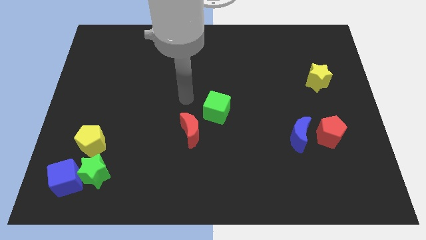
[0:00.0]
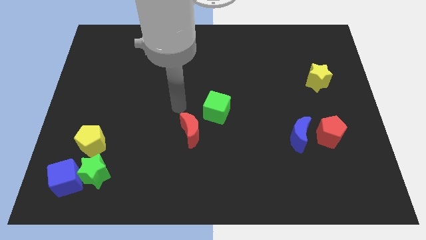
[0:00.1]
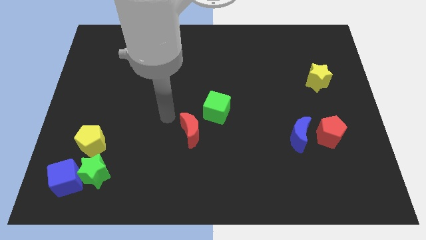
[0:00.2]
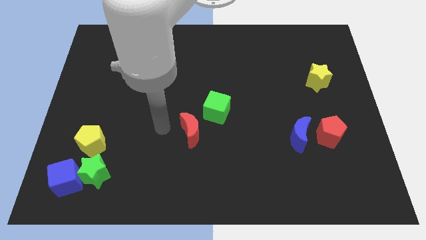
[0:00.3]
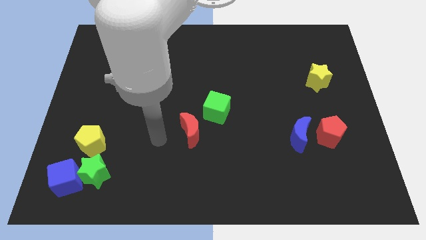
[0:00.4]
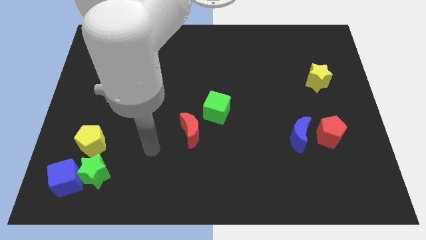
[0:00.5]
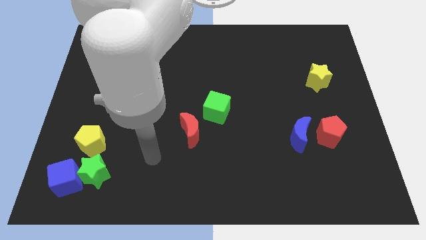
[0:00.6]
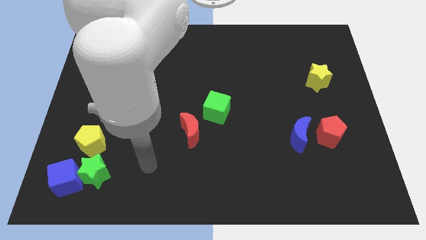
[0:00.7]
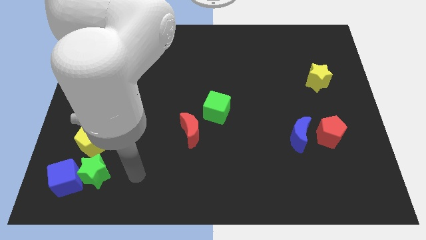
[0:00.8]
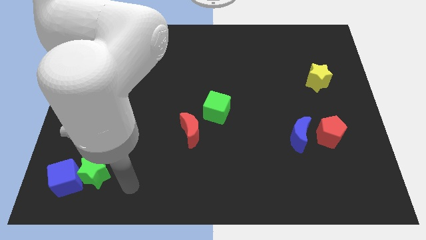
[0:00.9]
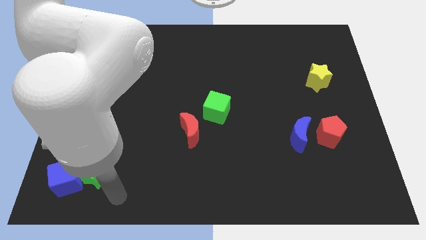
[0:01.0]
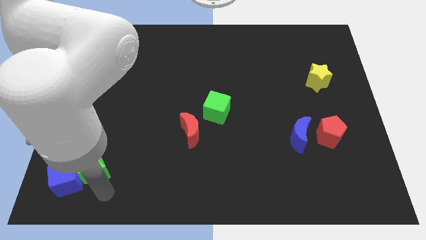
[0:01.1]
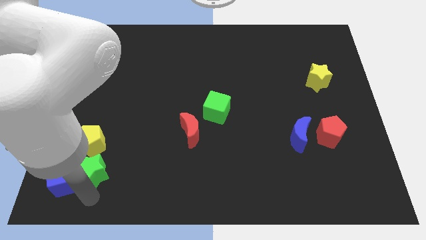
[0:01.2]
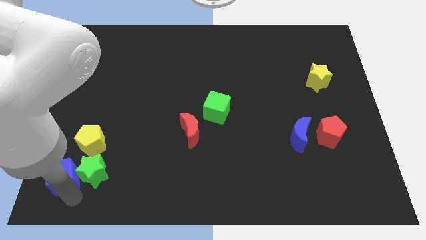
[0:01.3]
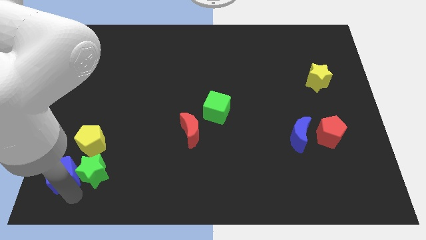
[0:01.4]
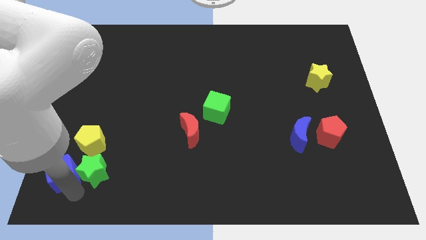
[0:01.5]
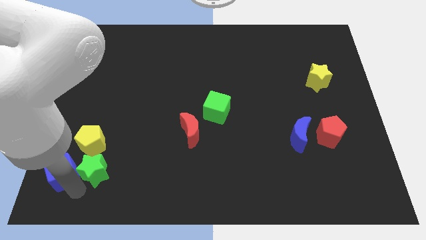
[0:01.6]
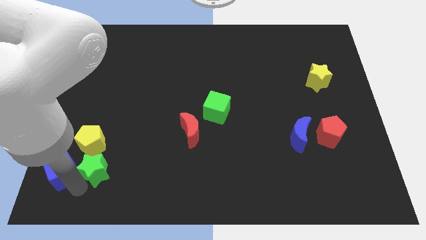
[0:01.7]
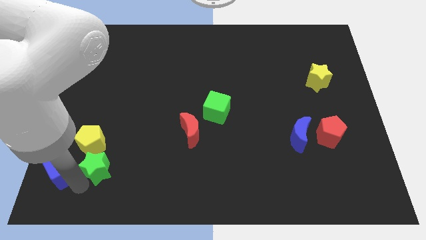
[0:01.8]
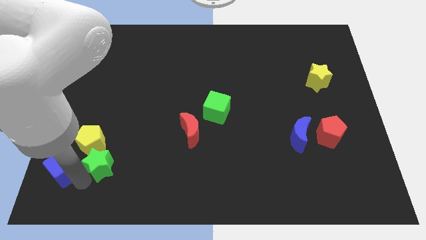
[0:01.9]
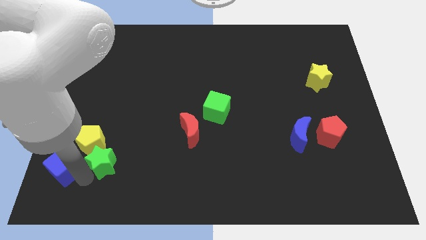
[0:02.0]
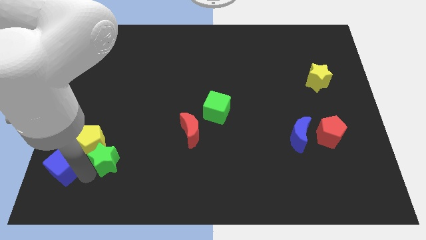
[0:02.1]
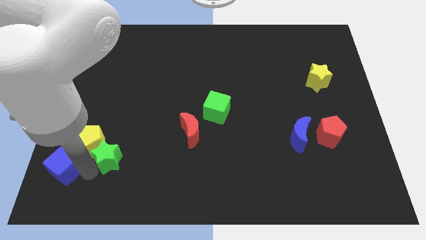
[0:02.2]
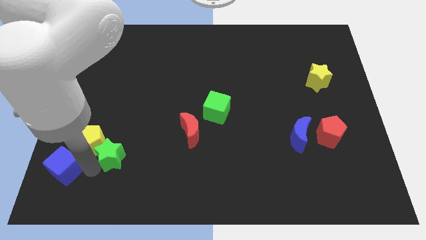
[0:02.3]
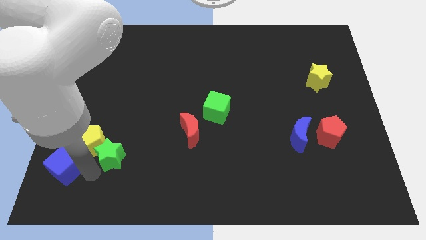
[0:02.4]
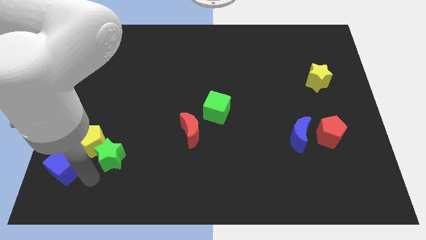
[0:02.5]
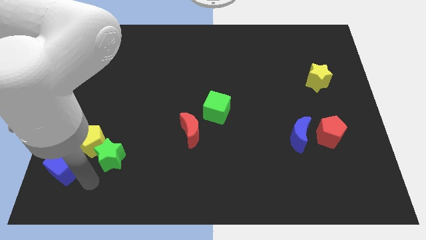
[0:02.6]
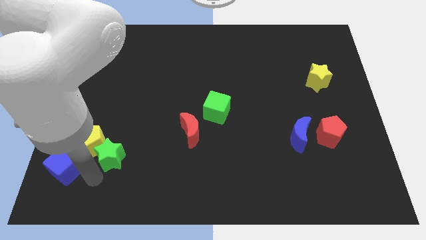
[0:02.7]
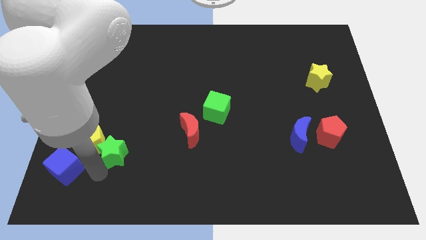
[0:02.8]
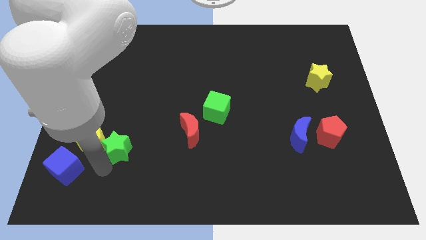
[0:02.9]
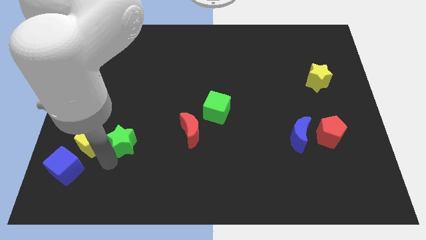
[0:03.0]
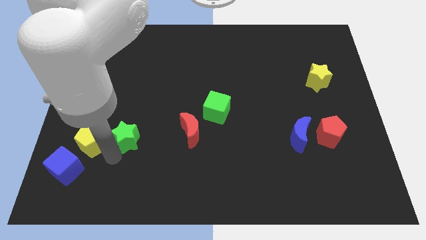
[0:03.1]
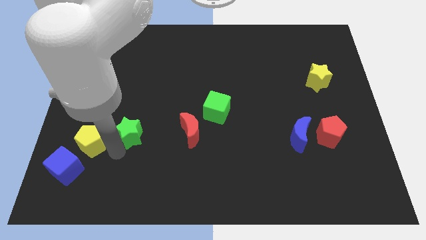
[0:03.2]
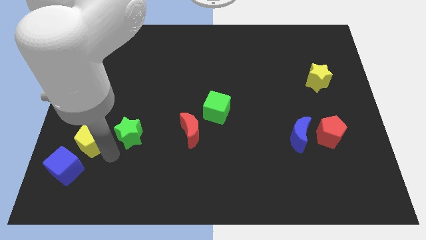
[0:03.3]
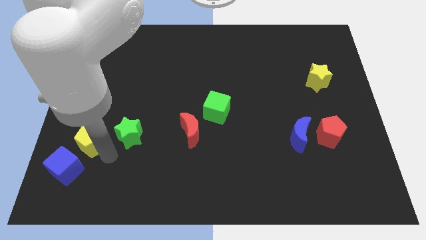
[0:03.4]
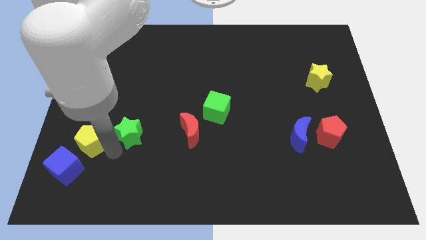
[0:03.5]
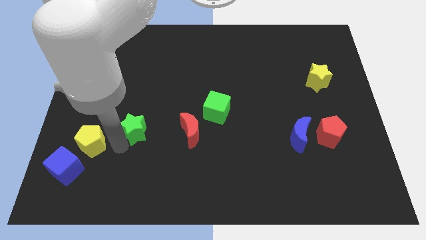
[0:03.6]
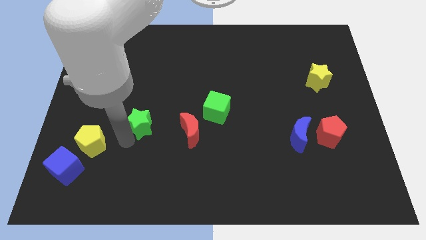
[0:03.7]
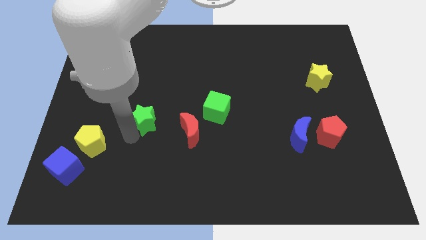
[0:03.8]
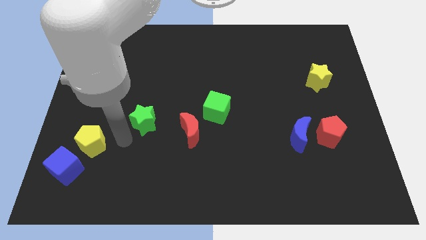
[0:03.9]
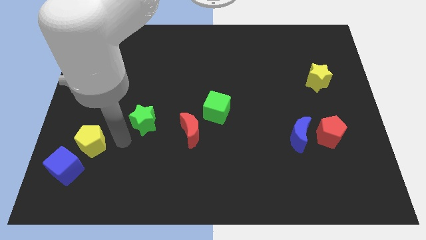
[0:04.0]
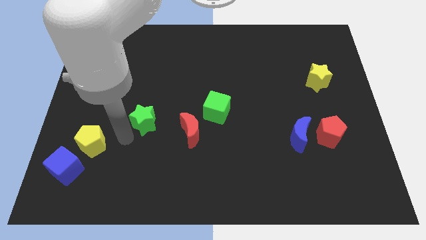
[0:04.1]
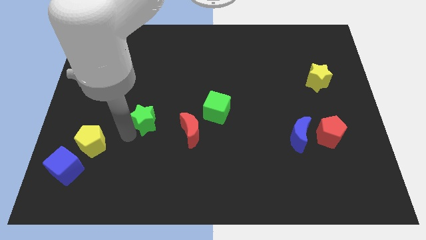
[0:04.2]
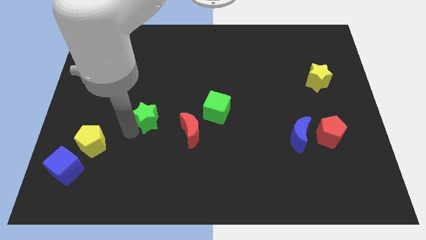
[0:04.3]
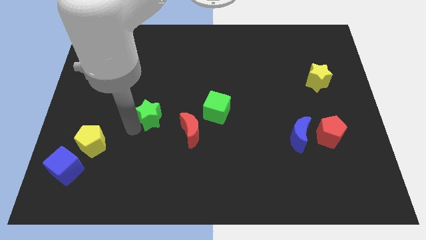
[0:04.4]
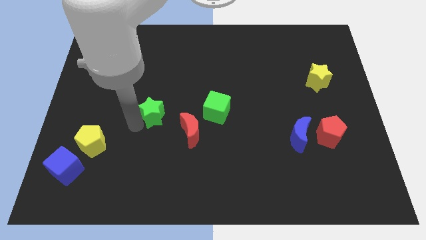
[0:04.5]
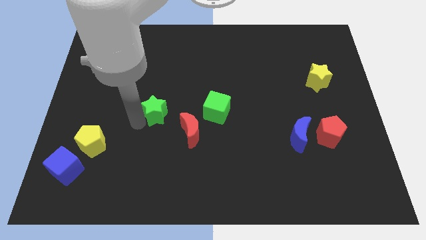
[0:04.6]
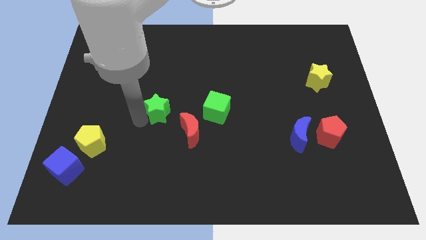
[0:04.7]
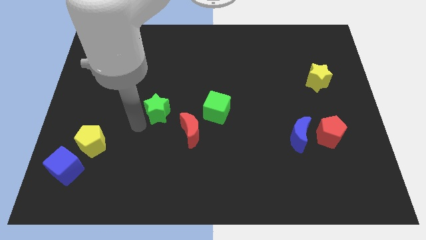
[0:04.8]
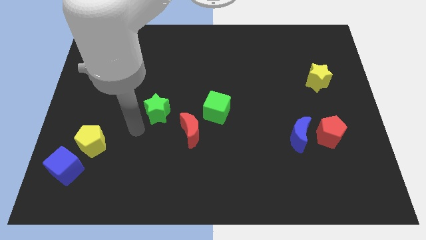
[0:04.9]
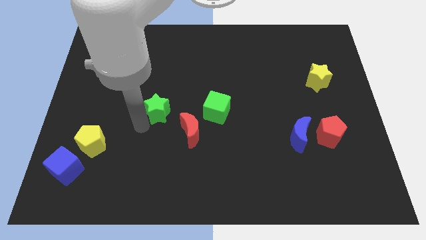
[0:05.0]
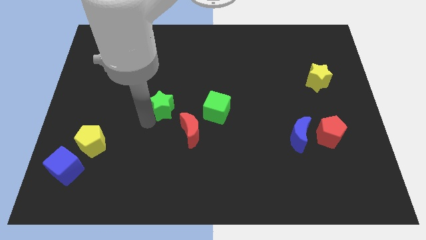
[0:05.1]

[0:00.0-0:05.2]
slide the green star diagonally upwards and to the right

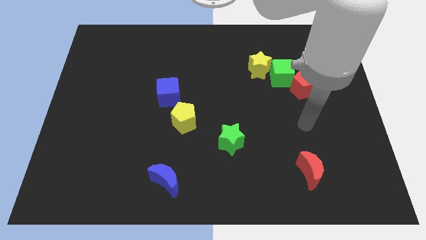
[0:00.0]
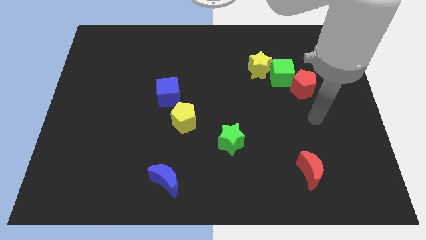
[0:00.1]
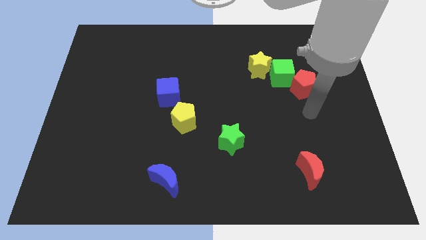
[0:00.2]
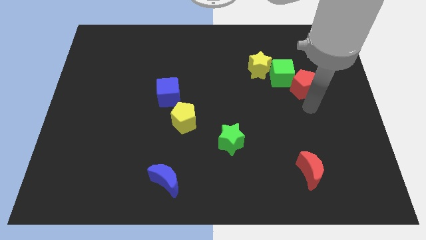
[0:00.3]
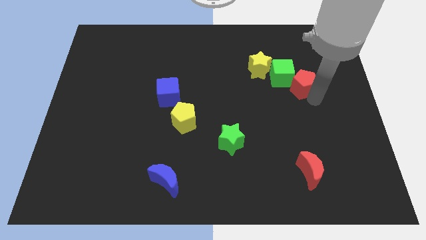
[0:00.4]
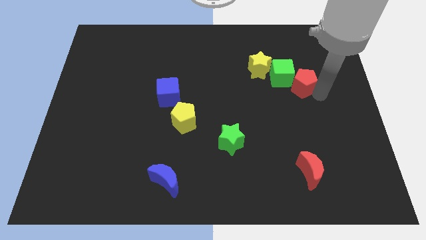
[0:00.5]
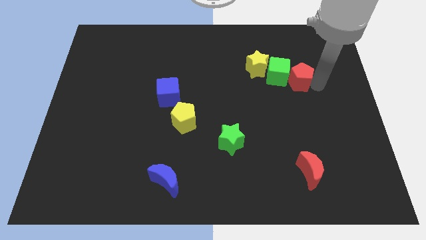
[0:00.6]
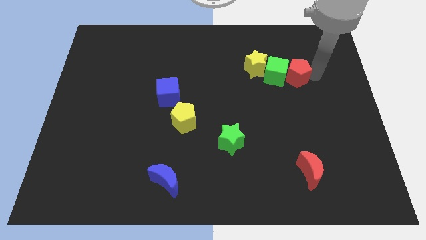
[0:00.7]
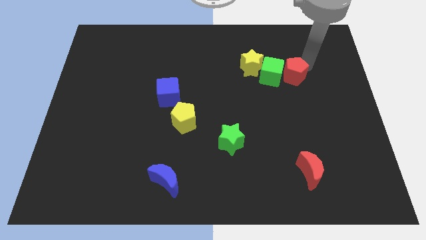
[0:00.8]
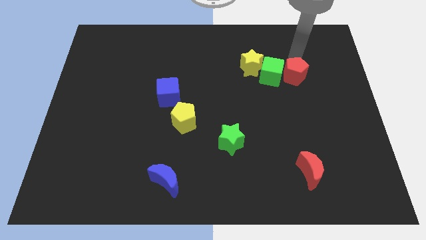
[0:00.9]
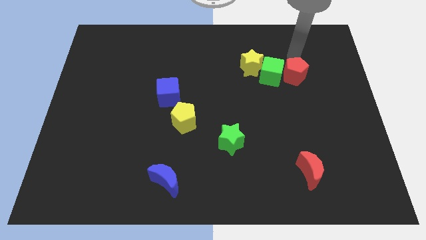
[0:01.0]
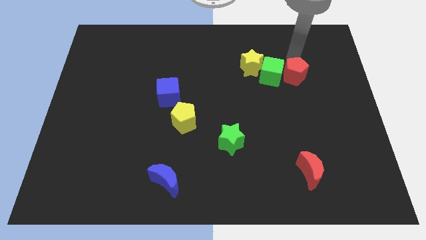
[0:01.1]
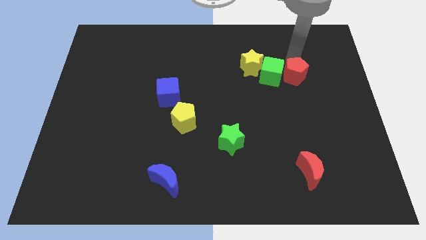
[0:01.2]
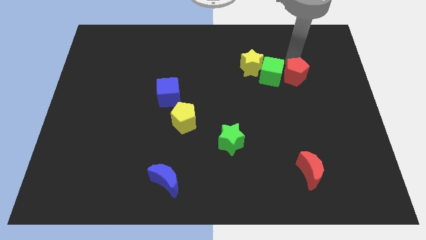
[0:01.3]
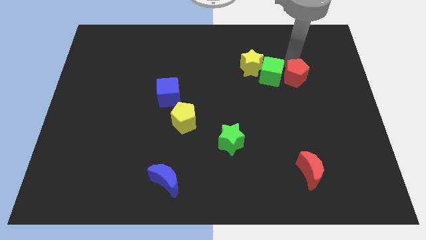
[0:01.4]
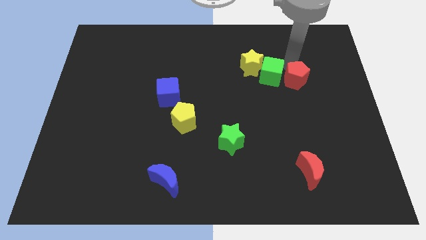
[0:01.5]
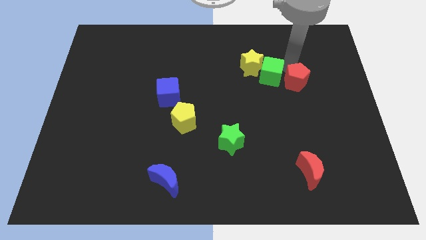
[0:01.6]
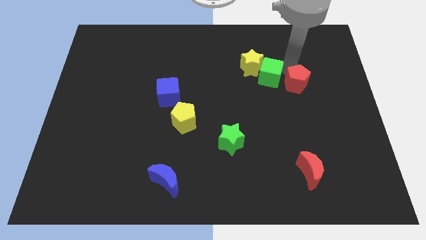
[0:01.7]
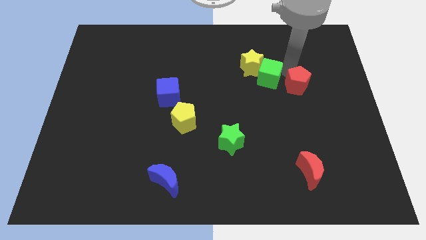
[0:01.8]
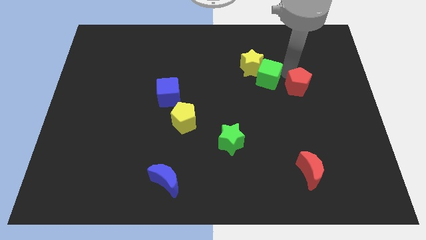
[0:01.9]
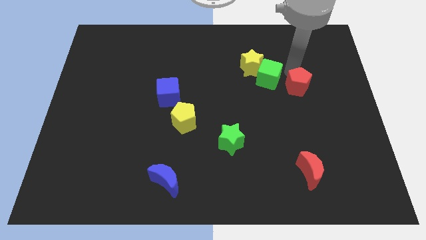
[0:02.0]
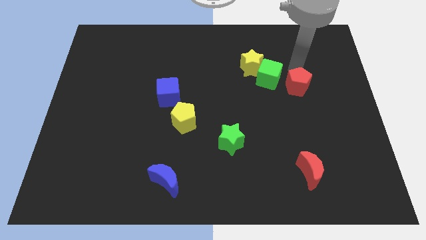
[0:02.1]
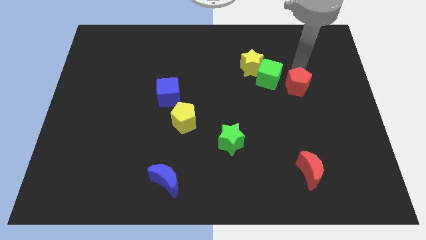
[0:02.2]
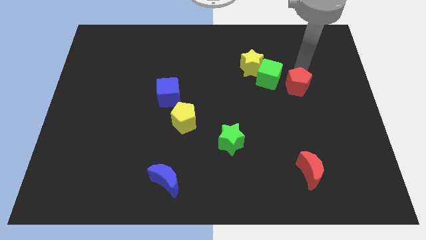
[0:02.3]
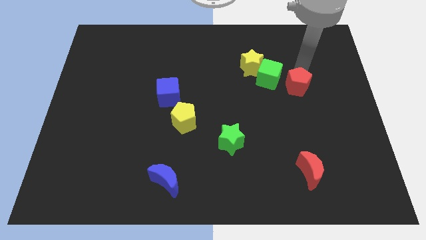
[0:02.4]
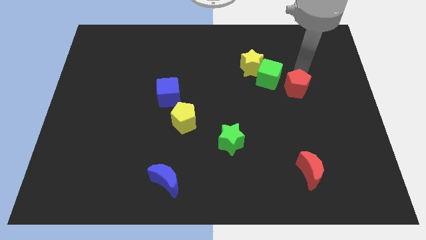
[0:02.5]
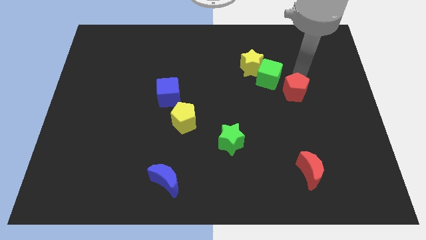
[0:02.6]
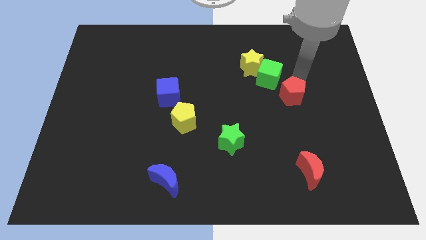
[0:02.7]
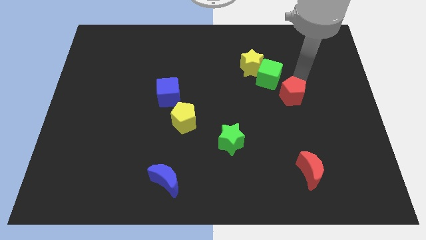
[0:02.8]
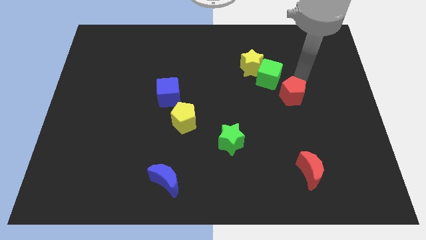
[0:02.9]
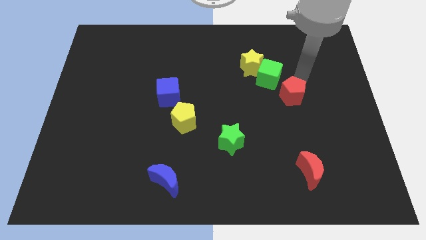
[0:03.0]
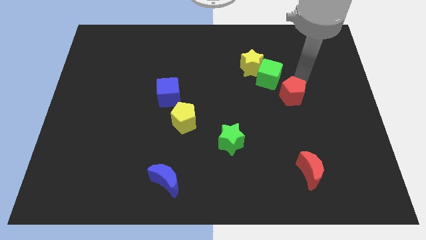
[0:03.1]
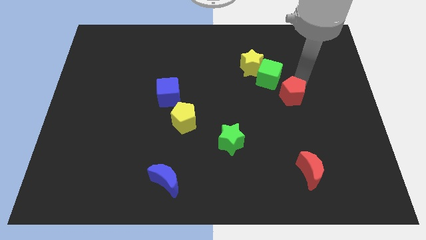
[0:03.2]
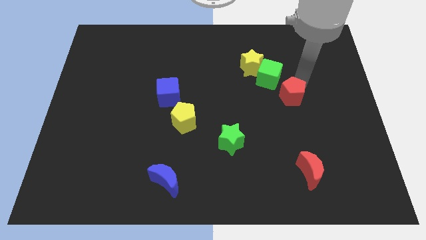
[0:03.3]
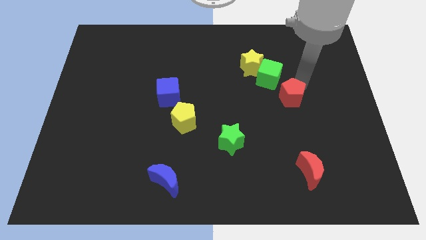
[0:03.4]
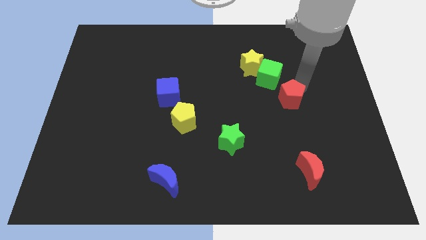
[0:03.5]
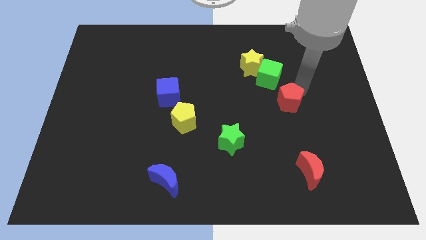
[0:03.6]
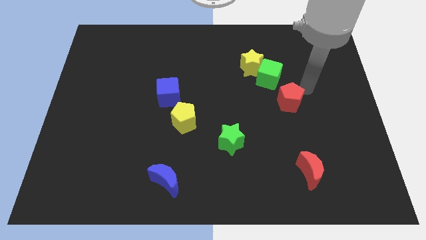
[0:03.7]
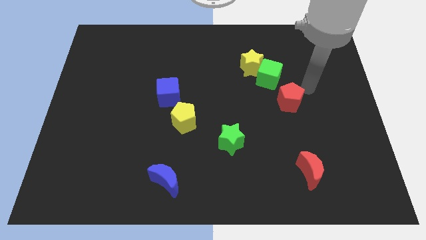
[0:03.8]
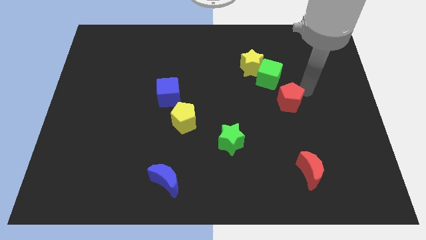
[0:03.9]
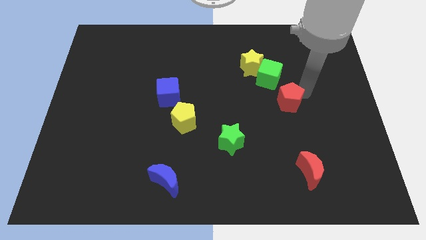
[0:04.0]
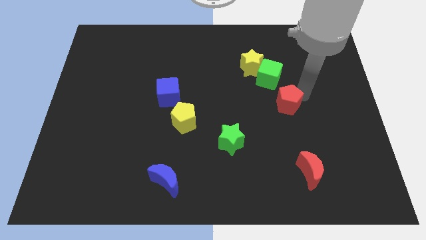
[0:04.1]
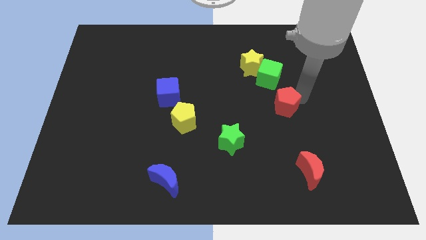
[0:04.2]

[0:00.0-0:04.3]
slightly move the red pentagon downwards and then left
